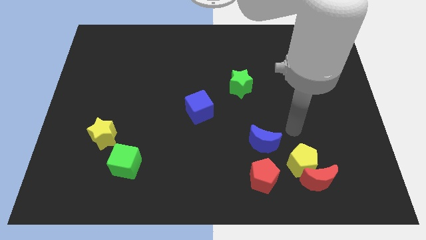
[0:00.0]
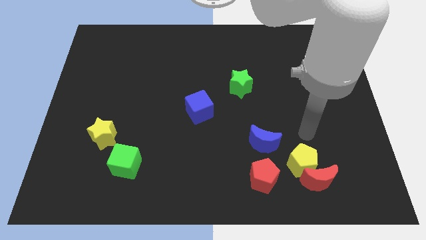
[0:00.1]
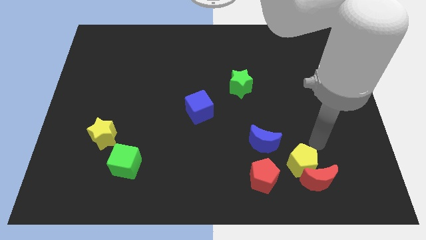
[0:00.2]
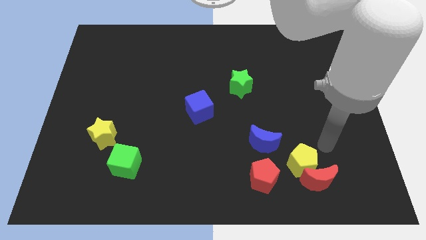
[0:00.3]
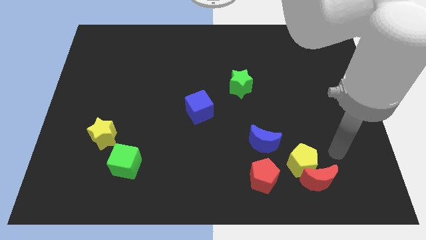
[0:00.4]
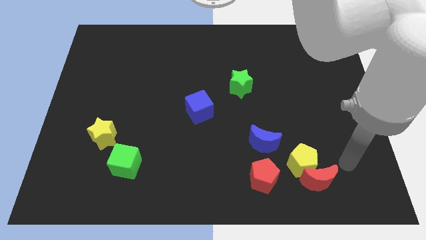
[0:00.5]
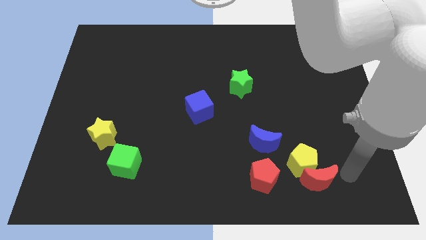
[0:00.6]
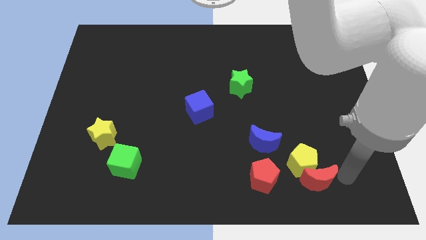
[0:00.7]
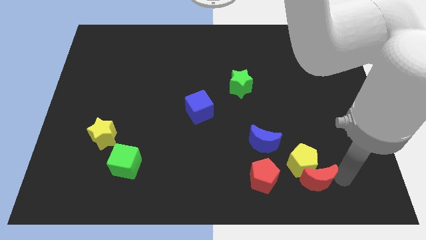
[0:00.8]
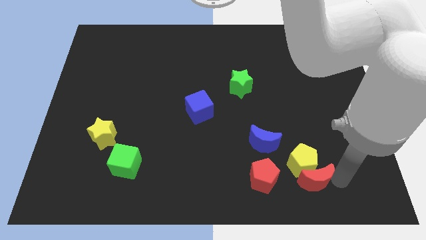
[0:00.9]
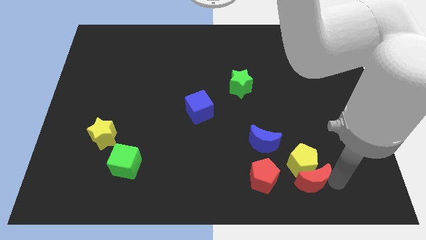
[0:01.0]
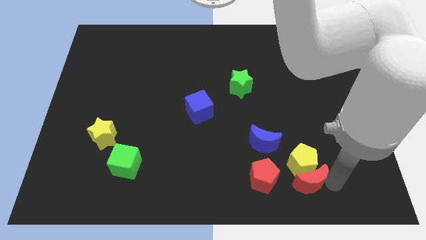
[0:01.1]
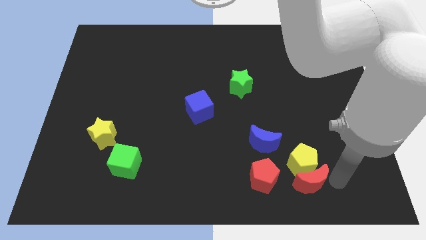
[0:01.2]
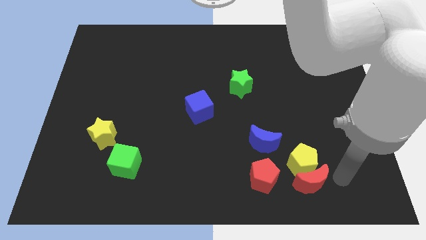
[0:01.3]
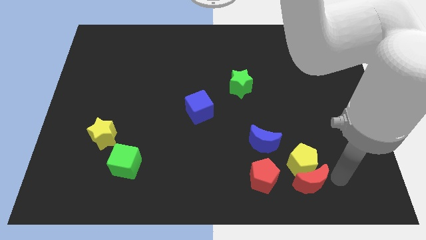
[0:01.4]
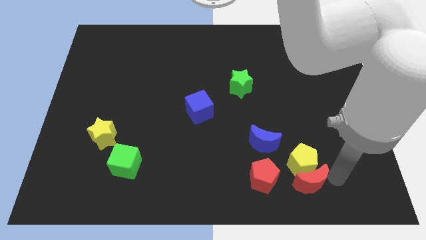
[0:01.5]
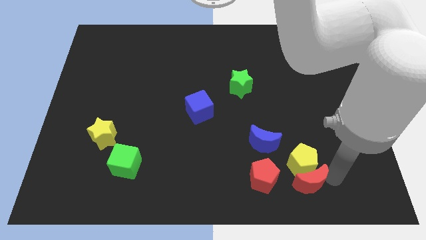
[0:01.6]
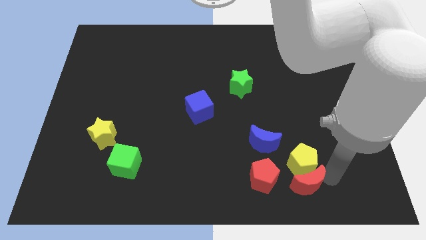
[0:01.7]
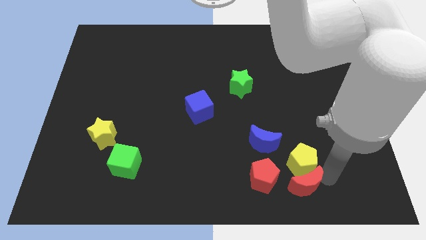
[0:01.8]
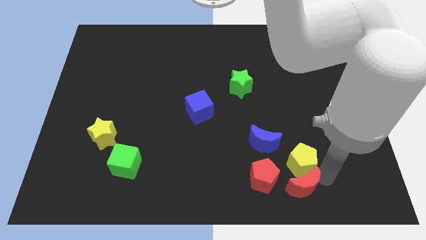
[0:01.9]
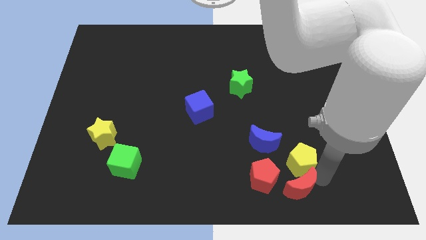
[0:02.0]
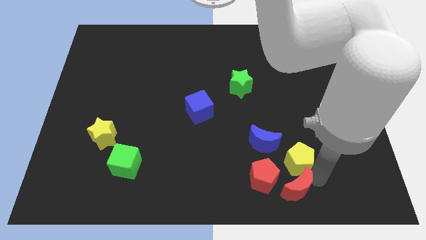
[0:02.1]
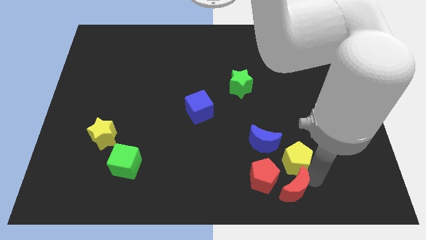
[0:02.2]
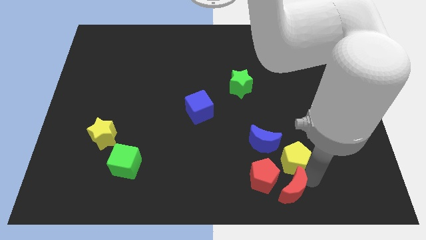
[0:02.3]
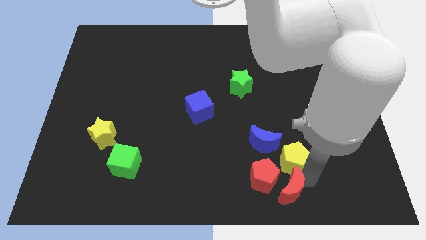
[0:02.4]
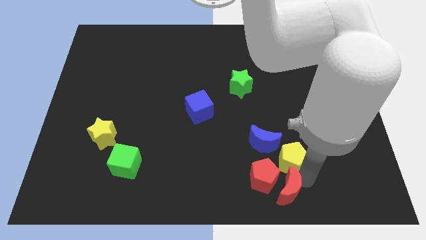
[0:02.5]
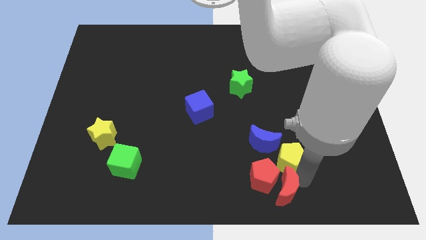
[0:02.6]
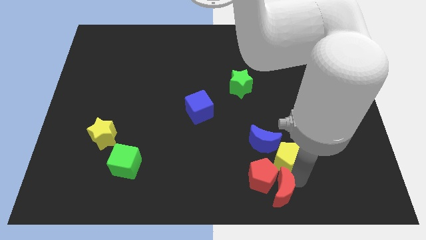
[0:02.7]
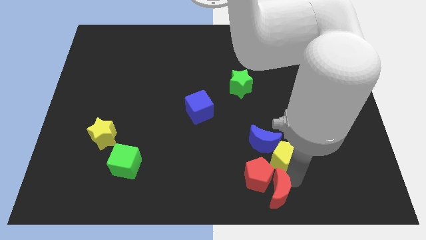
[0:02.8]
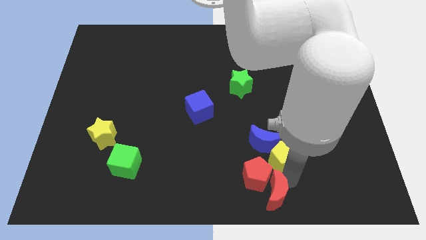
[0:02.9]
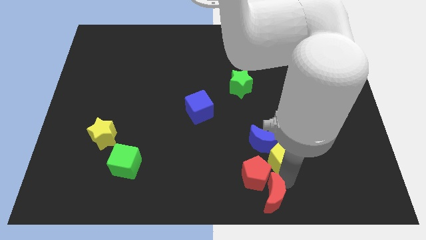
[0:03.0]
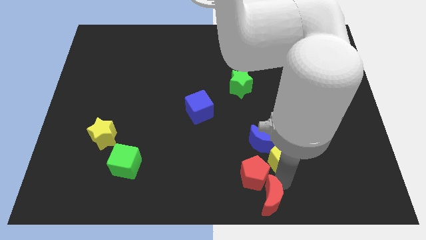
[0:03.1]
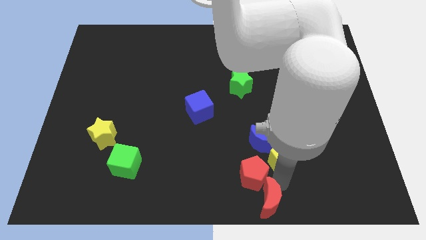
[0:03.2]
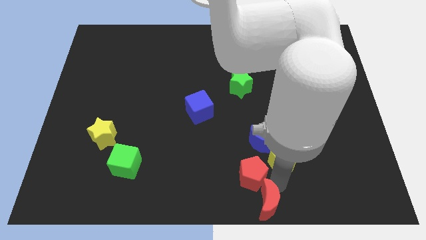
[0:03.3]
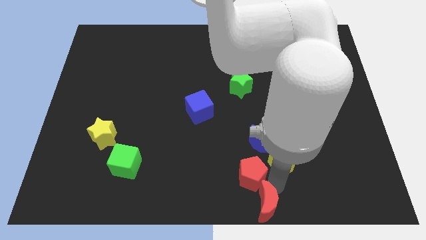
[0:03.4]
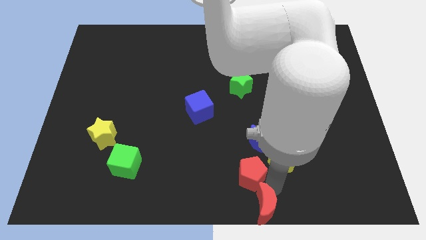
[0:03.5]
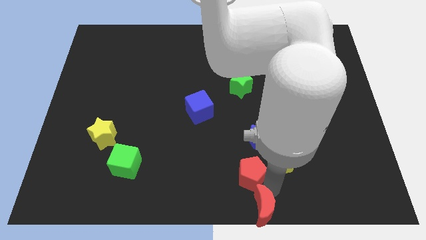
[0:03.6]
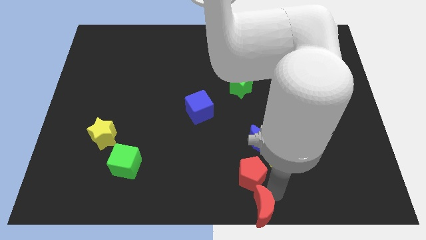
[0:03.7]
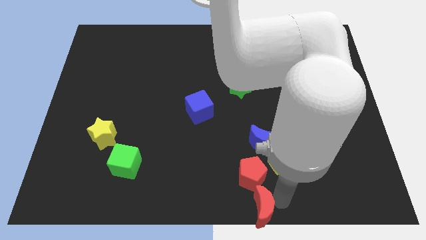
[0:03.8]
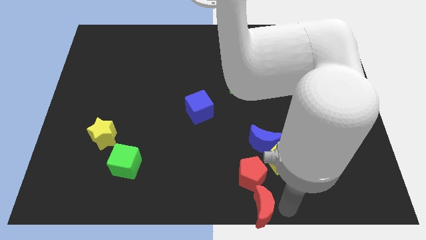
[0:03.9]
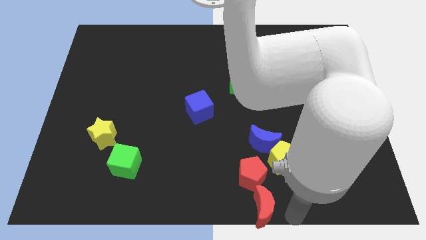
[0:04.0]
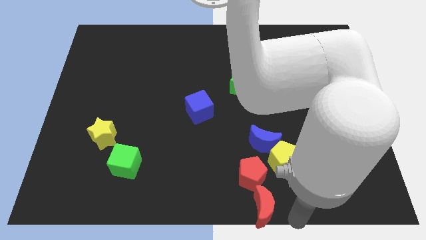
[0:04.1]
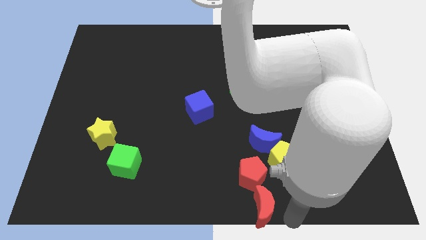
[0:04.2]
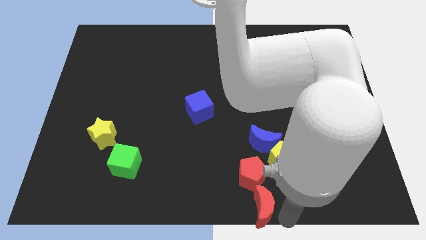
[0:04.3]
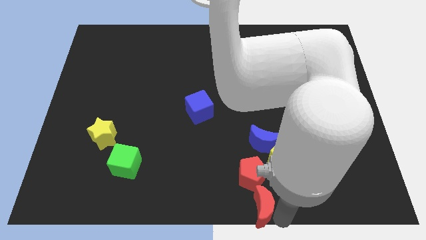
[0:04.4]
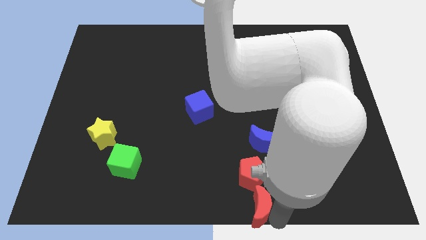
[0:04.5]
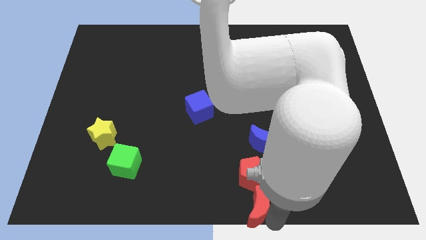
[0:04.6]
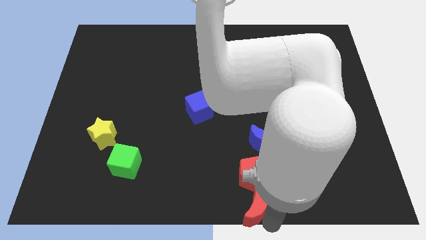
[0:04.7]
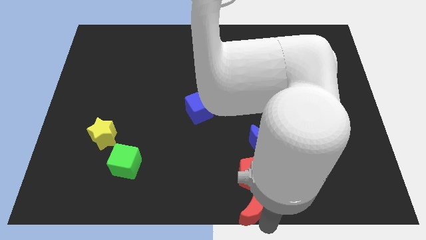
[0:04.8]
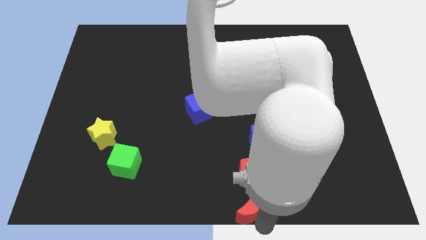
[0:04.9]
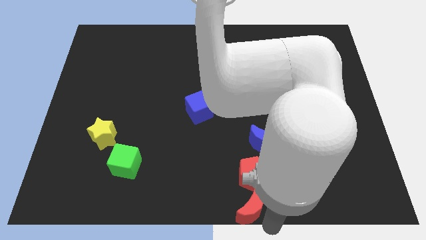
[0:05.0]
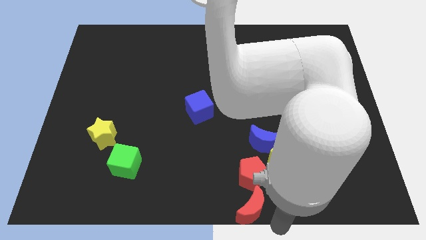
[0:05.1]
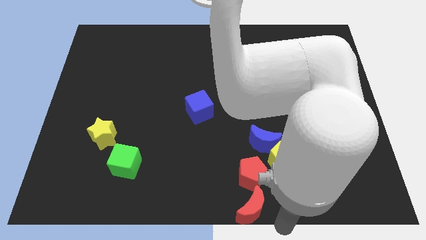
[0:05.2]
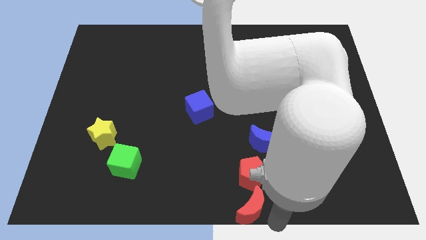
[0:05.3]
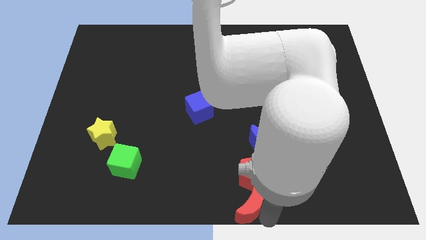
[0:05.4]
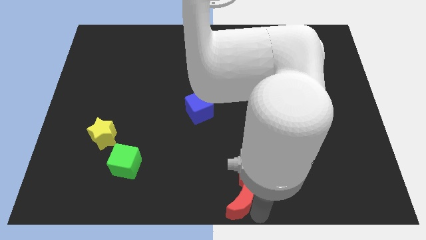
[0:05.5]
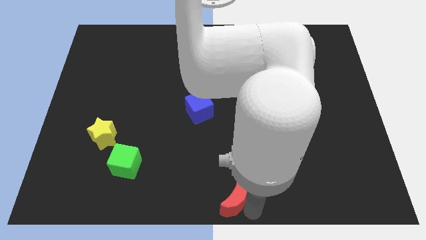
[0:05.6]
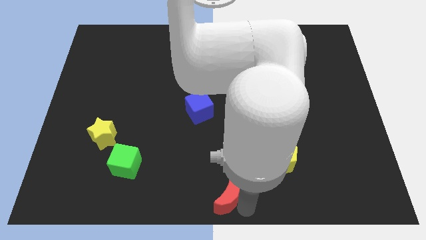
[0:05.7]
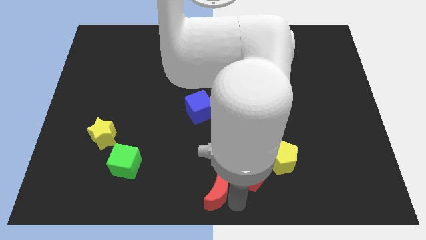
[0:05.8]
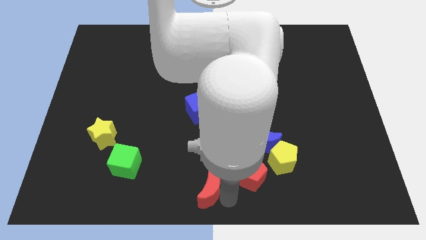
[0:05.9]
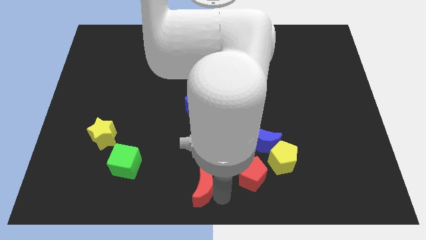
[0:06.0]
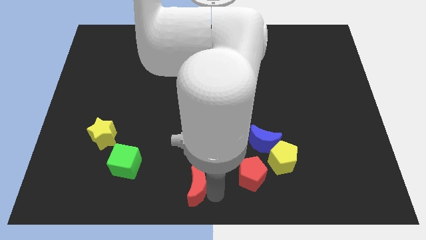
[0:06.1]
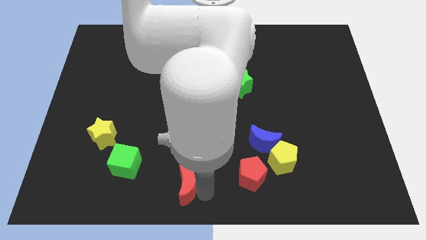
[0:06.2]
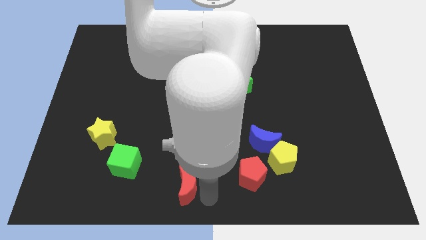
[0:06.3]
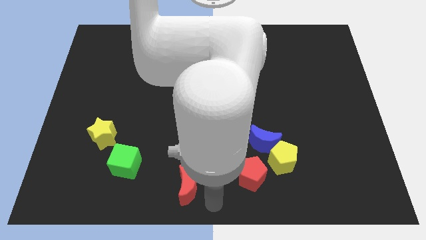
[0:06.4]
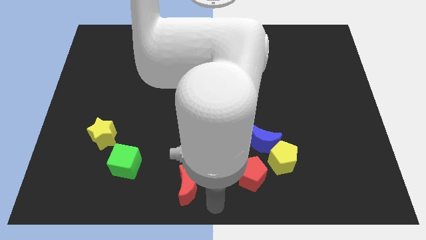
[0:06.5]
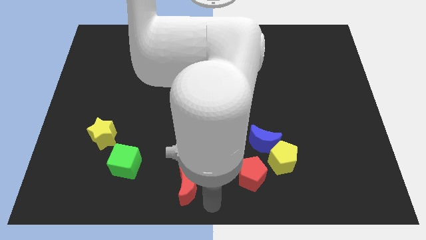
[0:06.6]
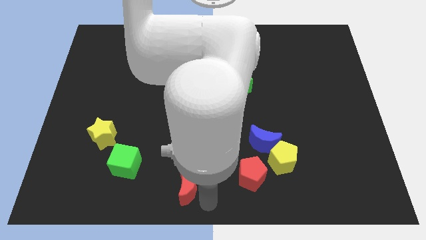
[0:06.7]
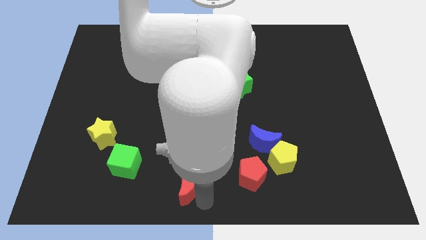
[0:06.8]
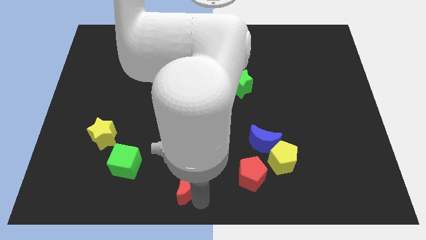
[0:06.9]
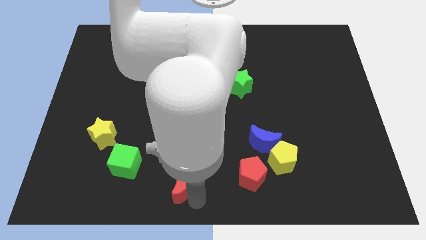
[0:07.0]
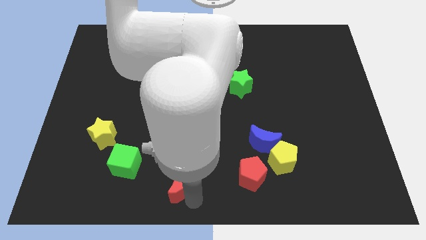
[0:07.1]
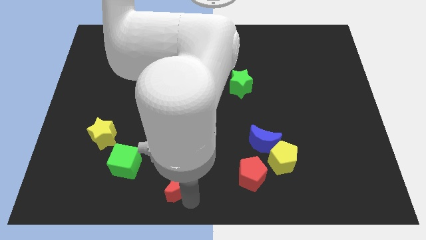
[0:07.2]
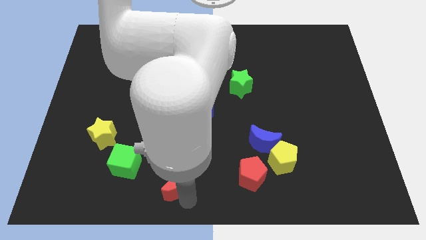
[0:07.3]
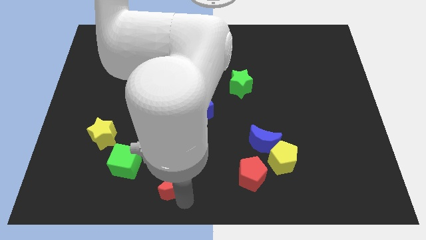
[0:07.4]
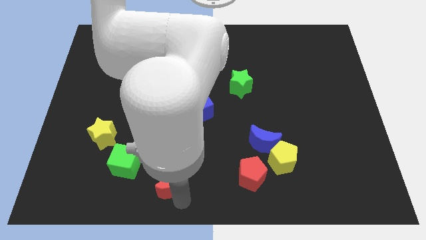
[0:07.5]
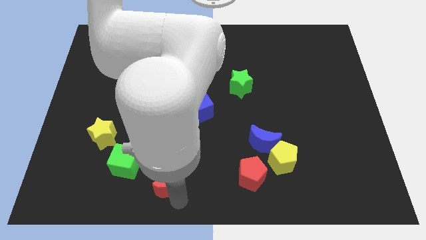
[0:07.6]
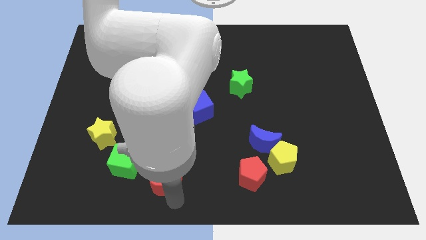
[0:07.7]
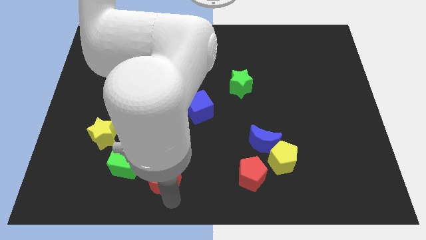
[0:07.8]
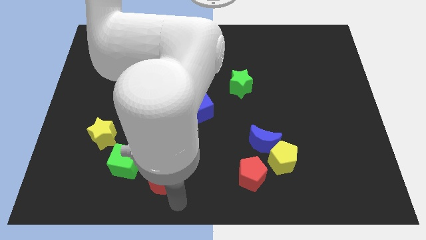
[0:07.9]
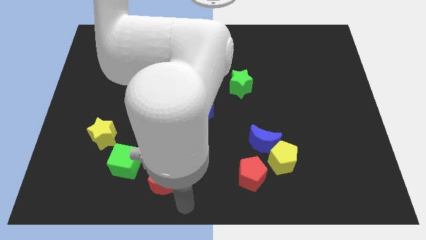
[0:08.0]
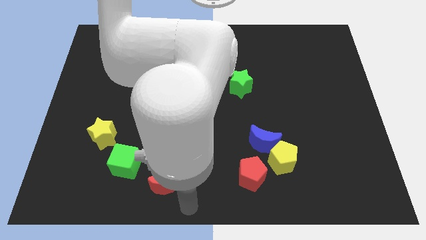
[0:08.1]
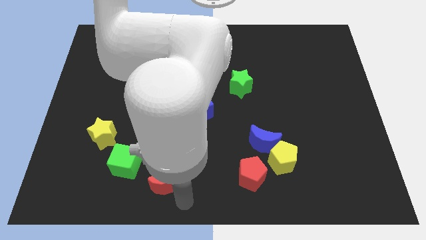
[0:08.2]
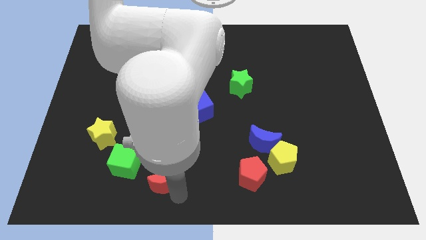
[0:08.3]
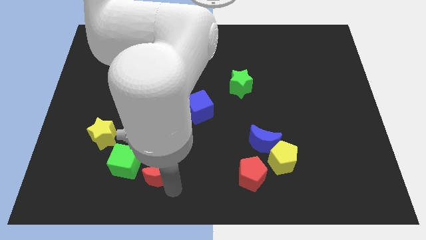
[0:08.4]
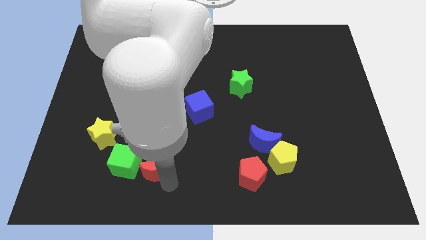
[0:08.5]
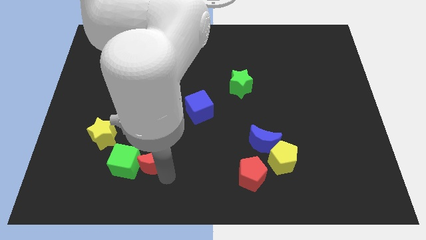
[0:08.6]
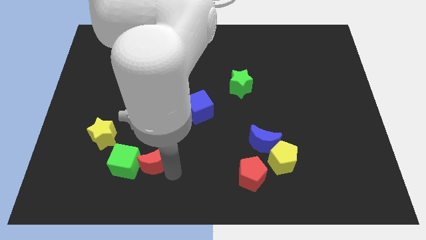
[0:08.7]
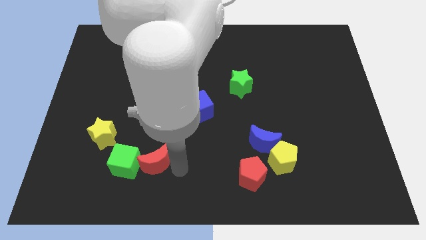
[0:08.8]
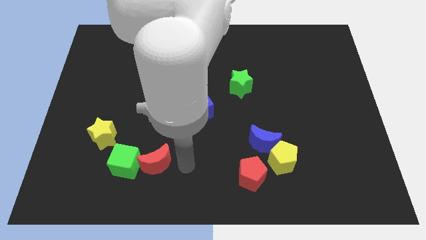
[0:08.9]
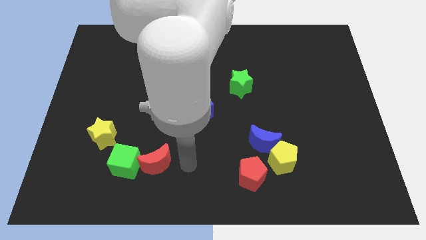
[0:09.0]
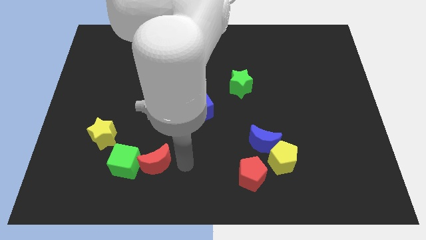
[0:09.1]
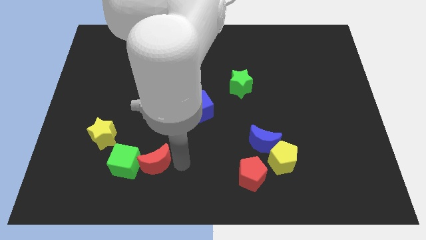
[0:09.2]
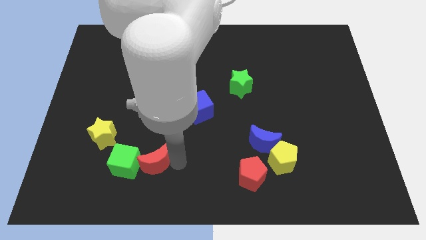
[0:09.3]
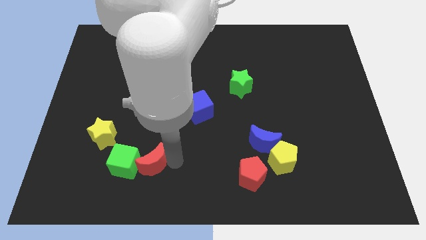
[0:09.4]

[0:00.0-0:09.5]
slide the red moon close to the green cube
